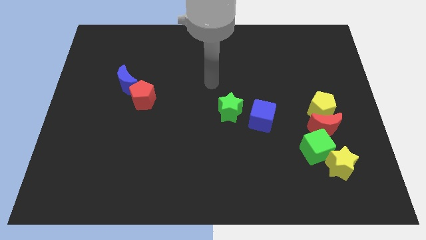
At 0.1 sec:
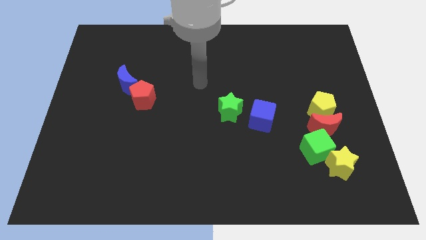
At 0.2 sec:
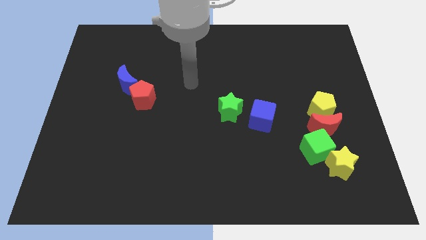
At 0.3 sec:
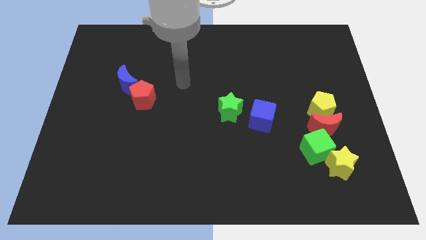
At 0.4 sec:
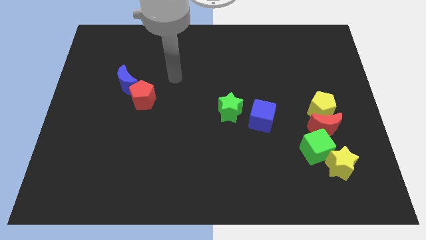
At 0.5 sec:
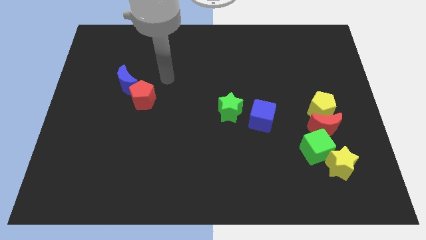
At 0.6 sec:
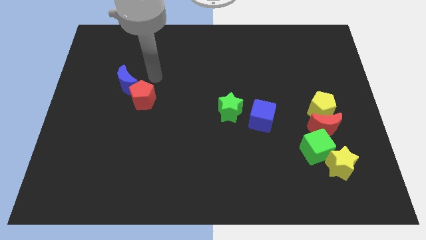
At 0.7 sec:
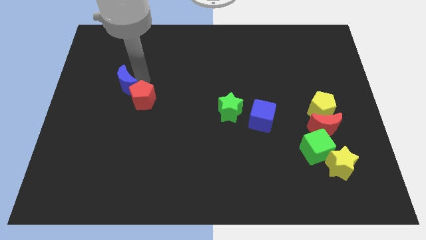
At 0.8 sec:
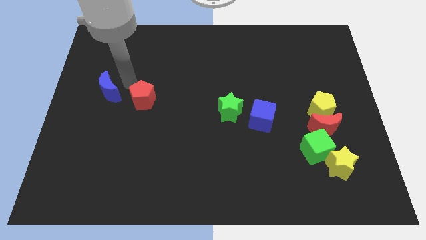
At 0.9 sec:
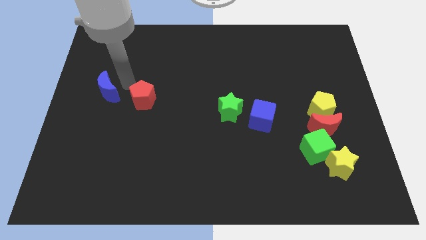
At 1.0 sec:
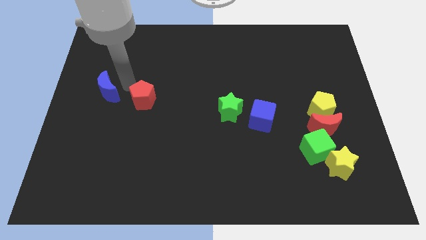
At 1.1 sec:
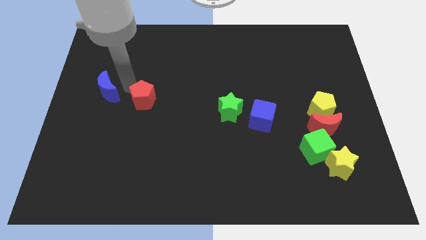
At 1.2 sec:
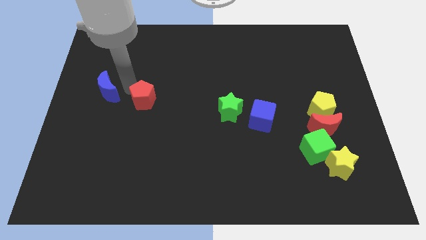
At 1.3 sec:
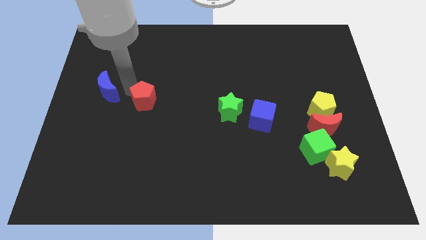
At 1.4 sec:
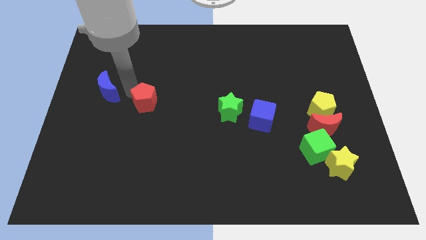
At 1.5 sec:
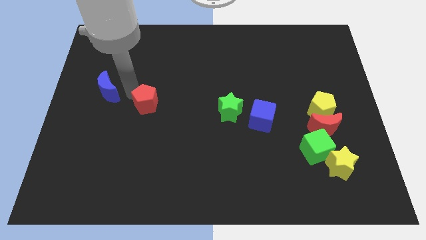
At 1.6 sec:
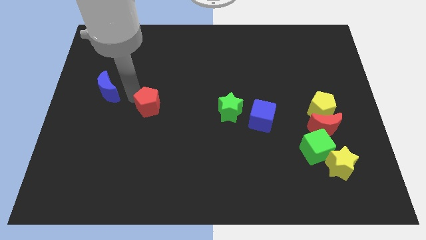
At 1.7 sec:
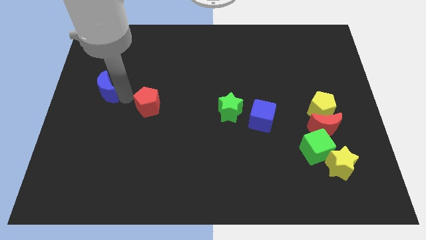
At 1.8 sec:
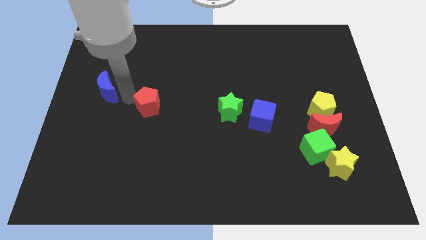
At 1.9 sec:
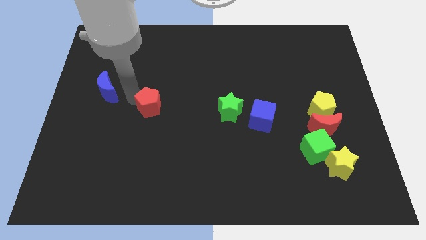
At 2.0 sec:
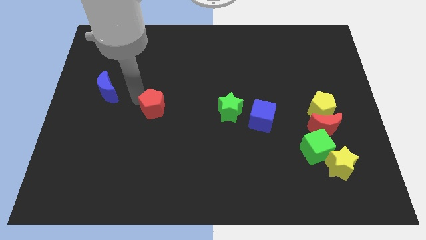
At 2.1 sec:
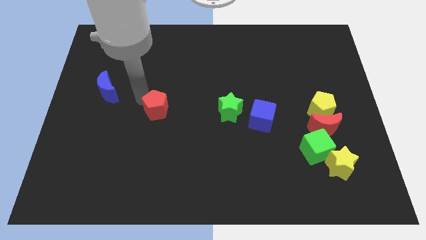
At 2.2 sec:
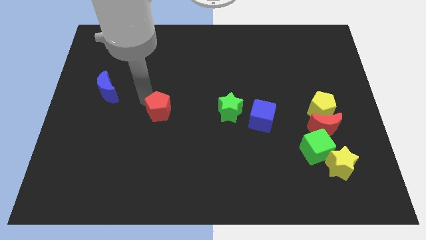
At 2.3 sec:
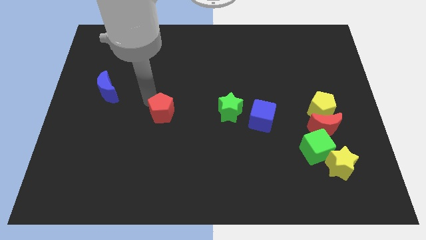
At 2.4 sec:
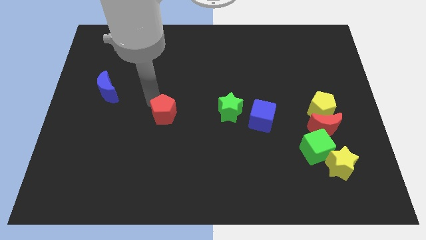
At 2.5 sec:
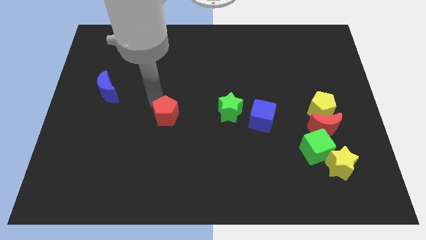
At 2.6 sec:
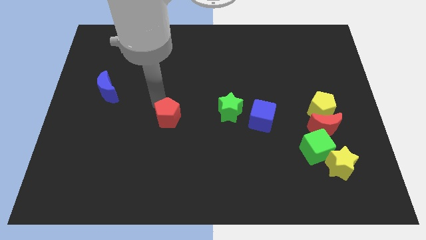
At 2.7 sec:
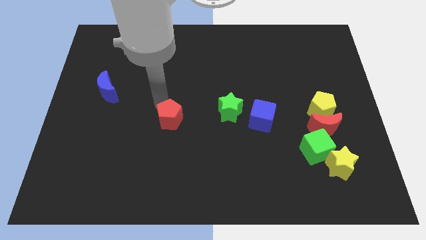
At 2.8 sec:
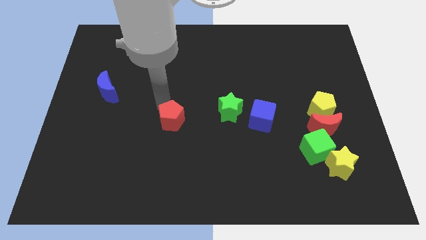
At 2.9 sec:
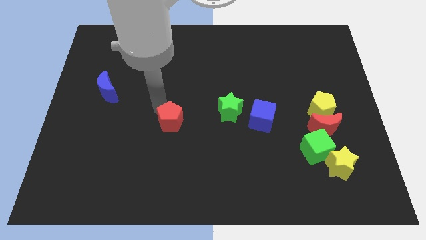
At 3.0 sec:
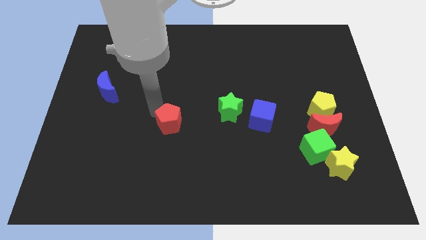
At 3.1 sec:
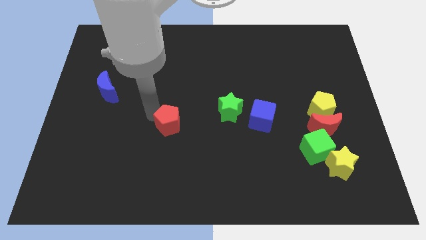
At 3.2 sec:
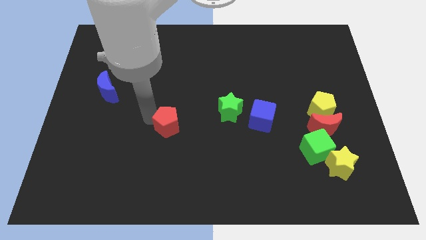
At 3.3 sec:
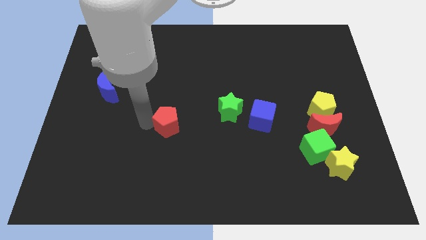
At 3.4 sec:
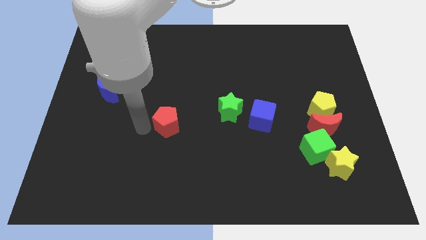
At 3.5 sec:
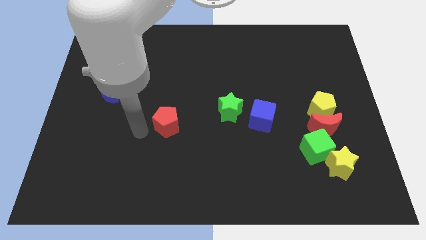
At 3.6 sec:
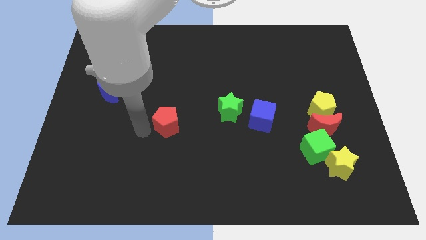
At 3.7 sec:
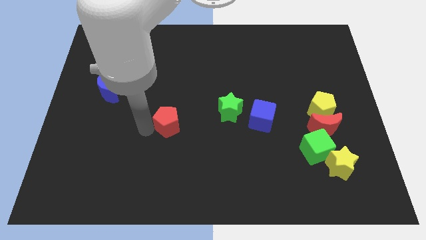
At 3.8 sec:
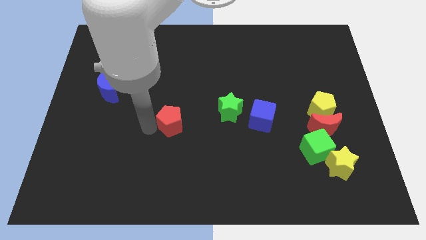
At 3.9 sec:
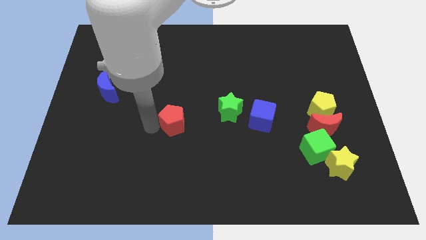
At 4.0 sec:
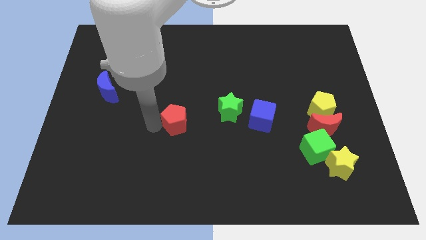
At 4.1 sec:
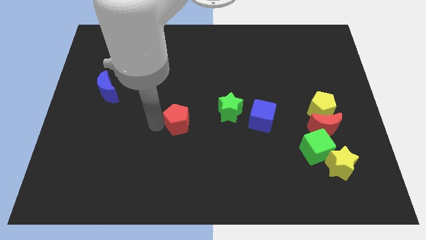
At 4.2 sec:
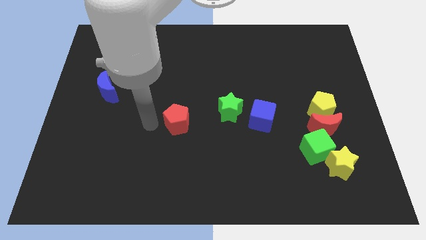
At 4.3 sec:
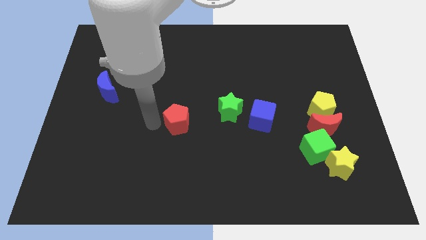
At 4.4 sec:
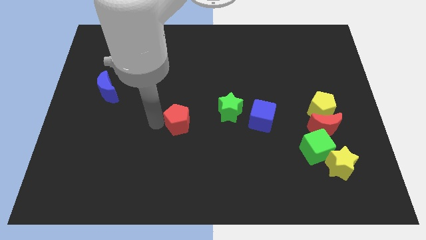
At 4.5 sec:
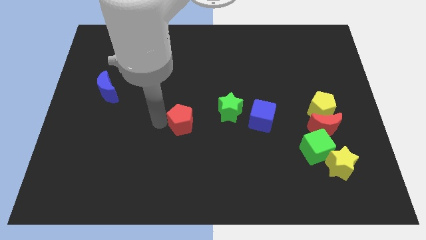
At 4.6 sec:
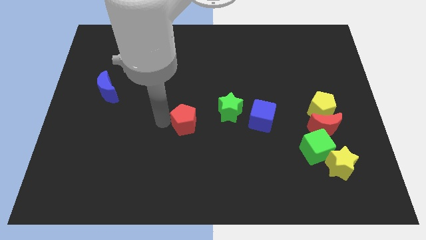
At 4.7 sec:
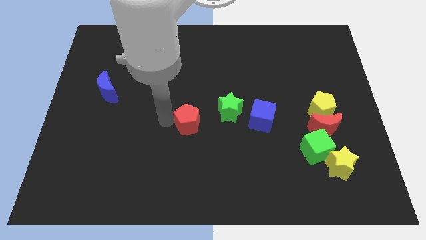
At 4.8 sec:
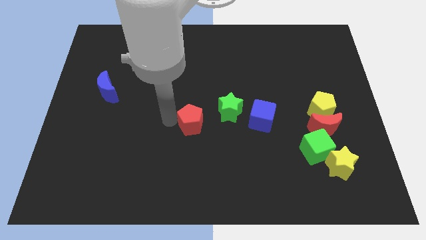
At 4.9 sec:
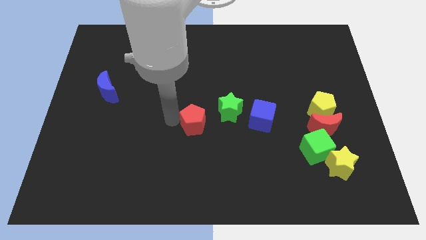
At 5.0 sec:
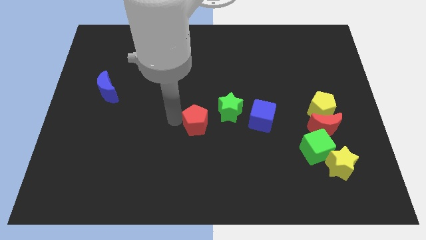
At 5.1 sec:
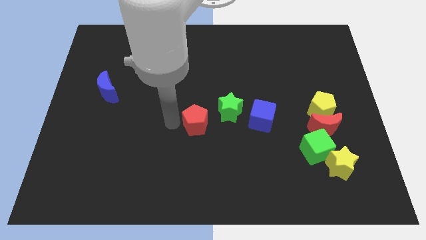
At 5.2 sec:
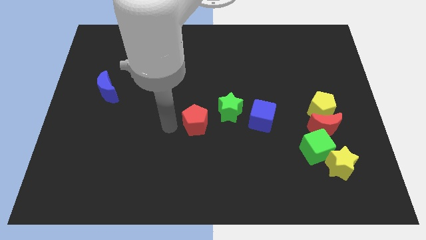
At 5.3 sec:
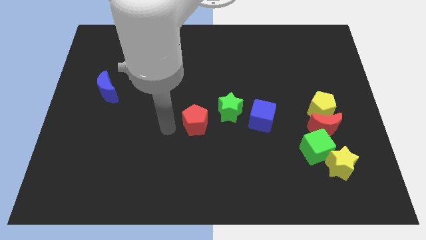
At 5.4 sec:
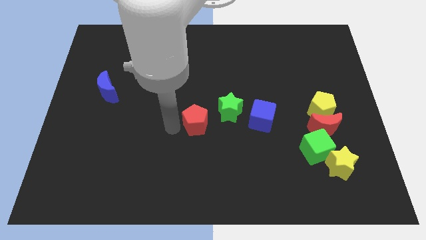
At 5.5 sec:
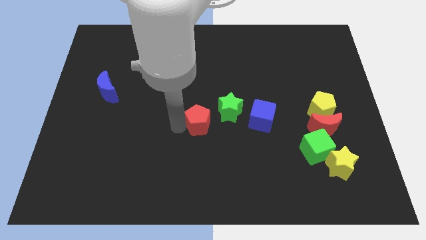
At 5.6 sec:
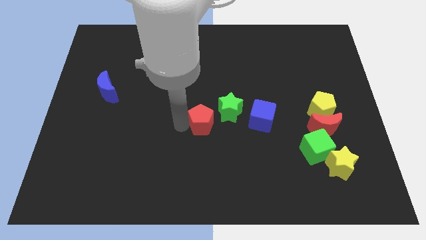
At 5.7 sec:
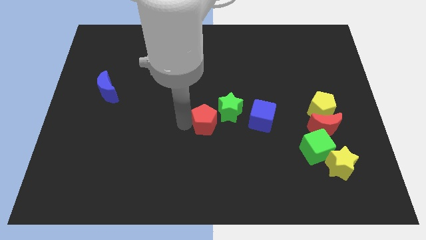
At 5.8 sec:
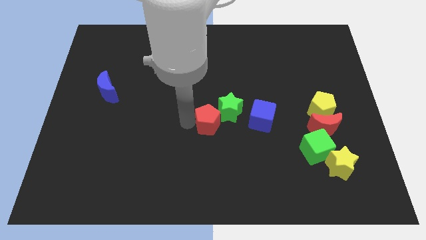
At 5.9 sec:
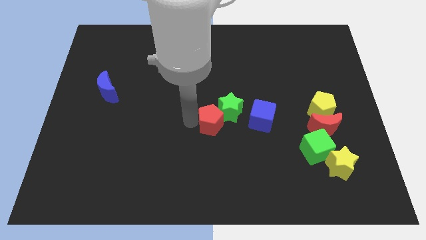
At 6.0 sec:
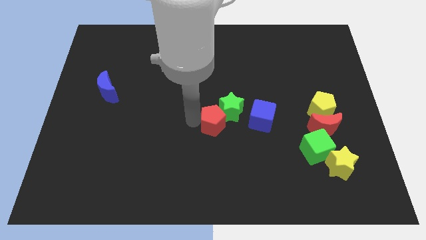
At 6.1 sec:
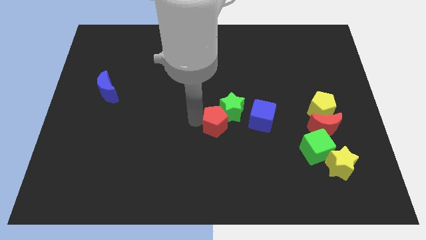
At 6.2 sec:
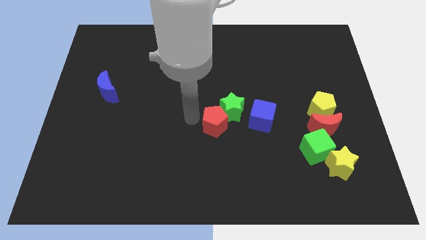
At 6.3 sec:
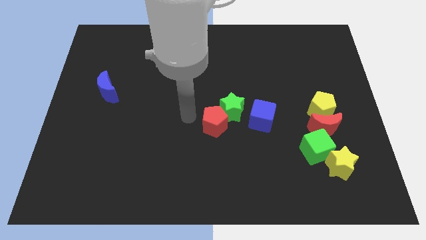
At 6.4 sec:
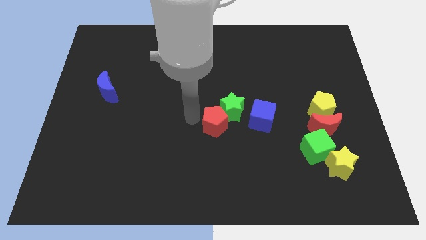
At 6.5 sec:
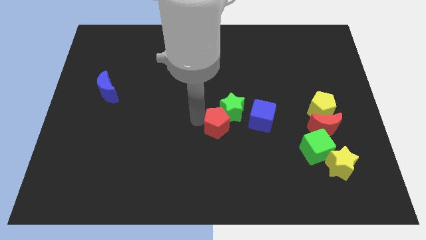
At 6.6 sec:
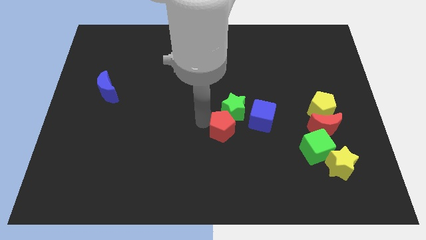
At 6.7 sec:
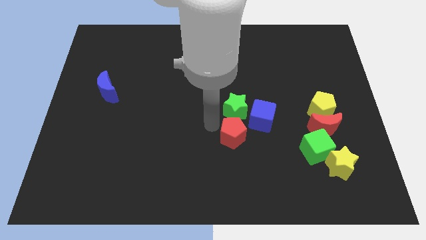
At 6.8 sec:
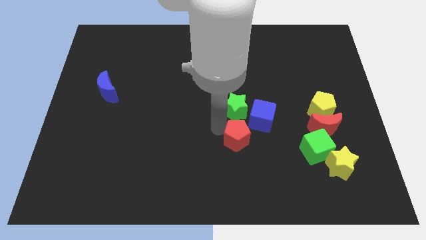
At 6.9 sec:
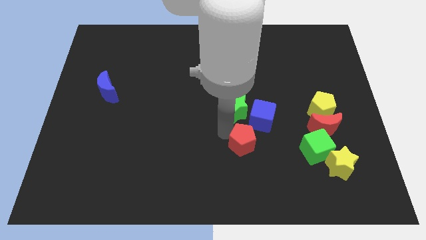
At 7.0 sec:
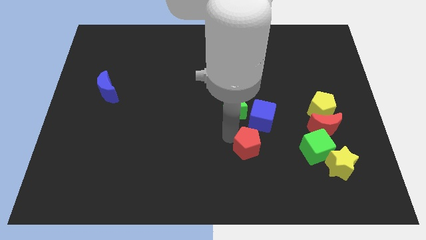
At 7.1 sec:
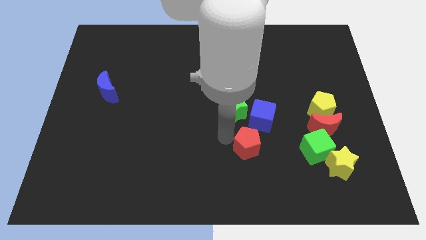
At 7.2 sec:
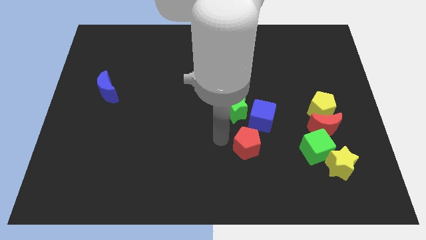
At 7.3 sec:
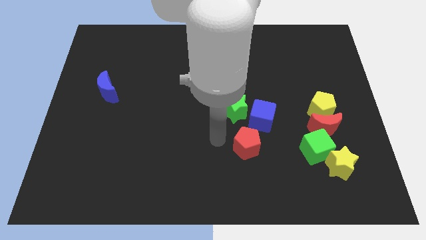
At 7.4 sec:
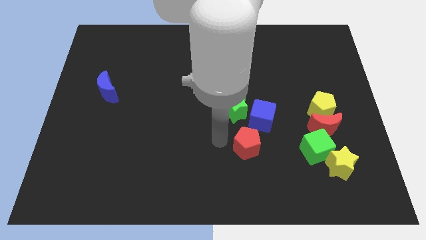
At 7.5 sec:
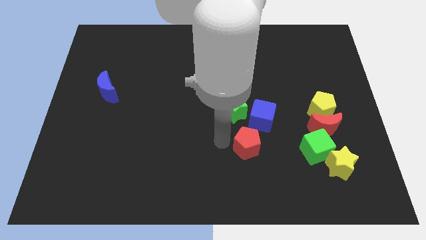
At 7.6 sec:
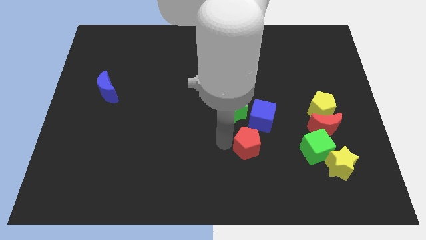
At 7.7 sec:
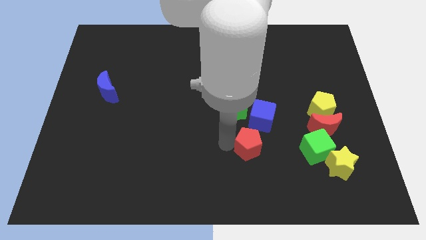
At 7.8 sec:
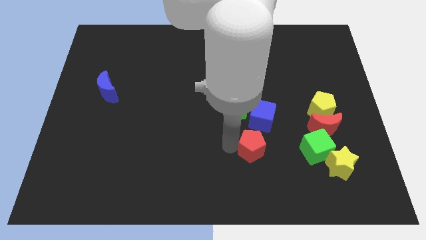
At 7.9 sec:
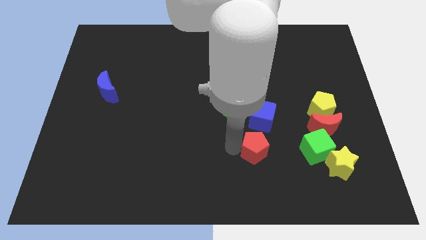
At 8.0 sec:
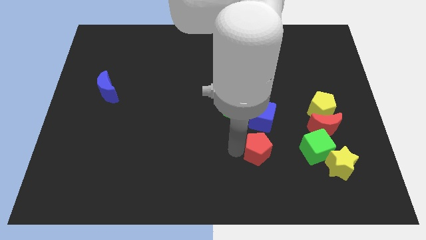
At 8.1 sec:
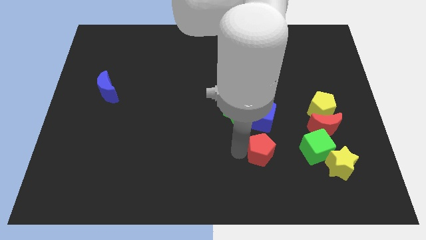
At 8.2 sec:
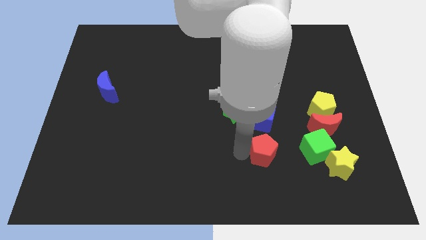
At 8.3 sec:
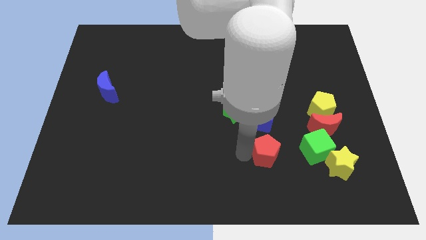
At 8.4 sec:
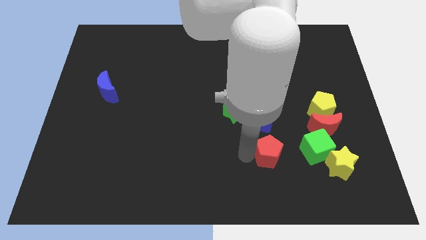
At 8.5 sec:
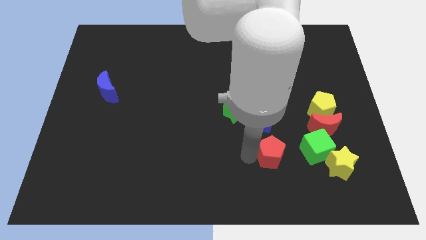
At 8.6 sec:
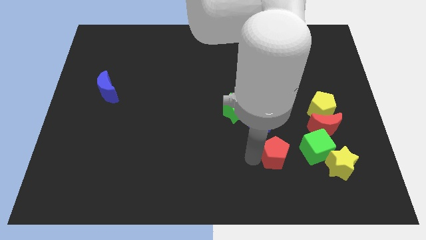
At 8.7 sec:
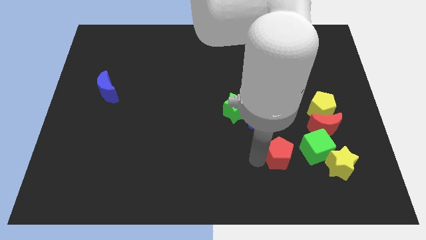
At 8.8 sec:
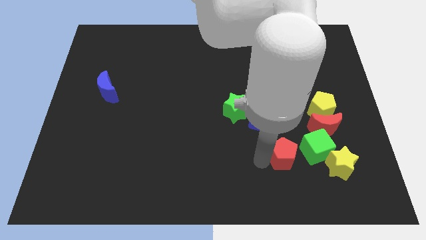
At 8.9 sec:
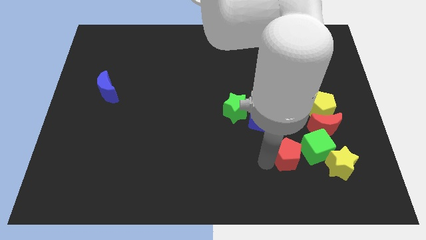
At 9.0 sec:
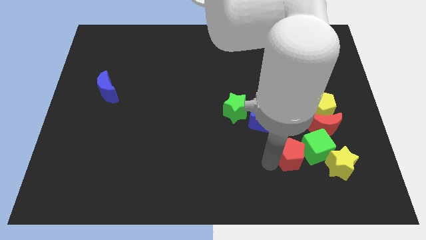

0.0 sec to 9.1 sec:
slide the red pentagon towards the green cube
